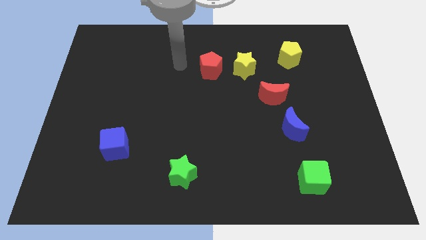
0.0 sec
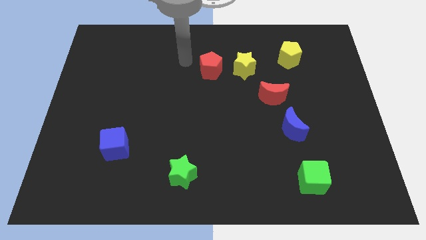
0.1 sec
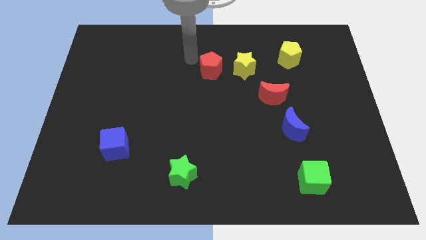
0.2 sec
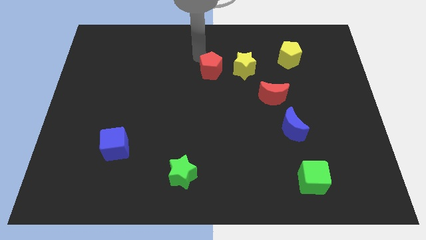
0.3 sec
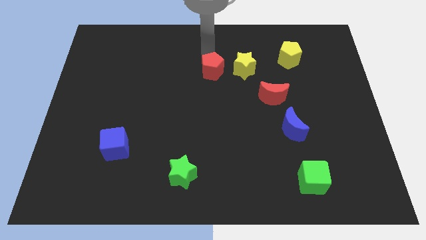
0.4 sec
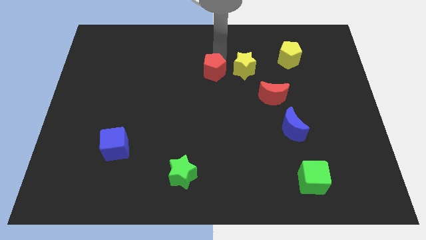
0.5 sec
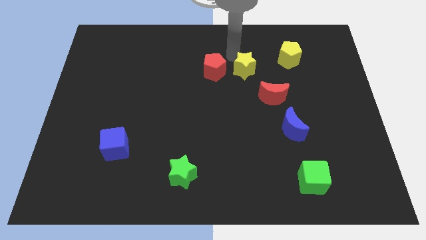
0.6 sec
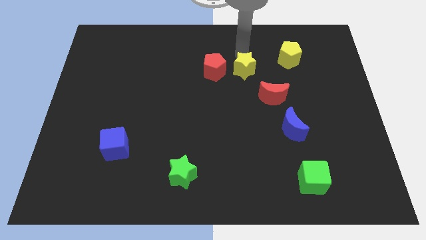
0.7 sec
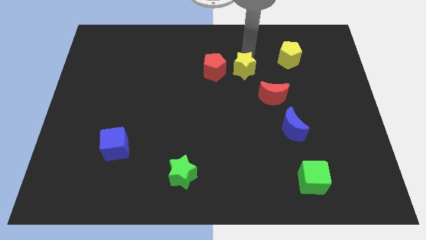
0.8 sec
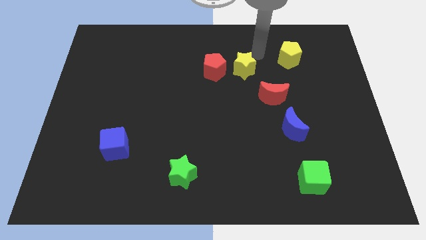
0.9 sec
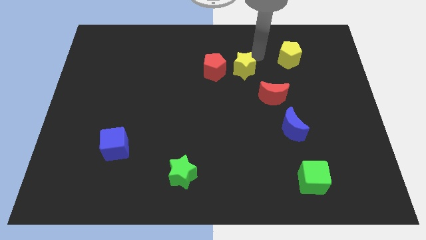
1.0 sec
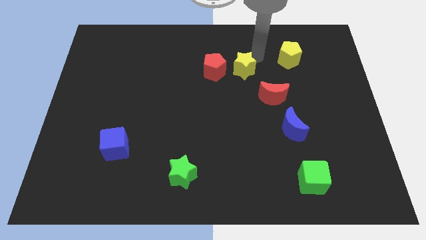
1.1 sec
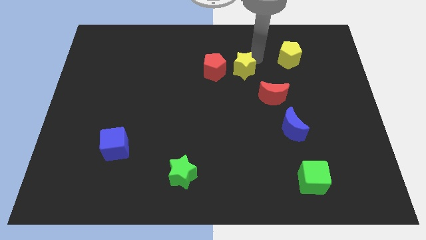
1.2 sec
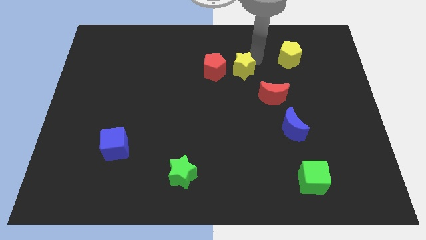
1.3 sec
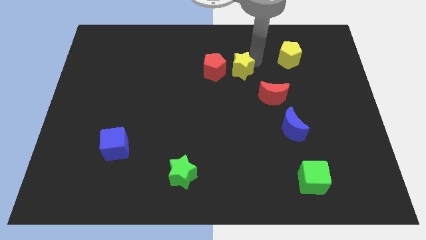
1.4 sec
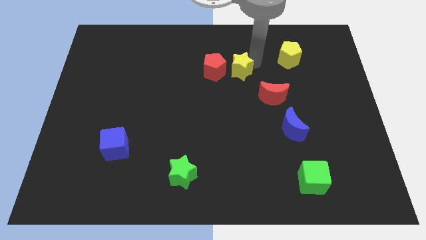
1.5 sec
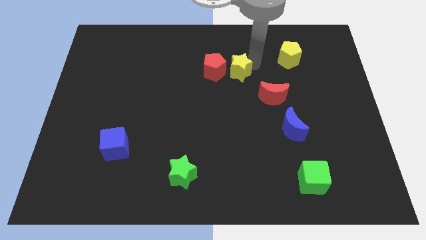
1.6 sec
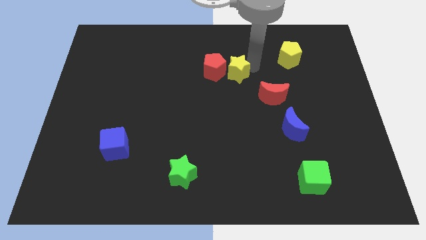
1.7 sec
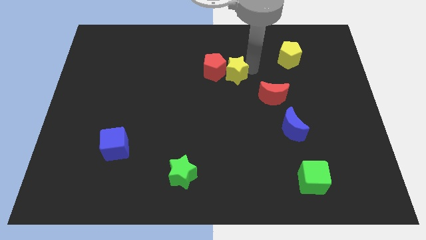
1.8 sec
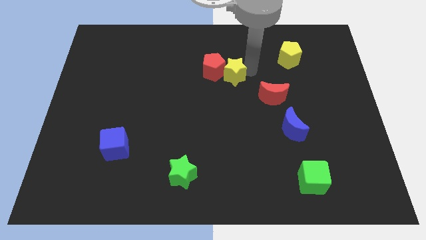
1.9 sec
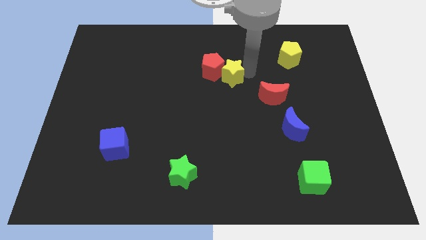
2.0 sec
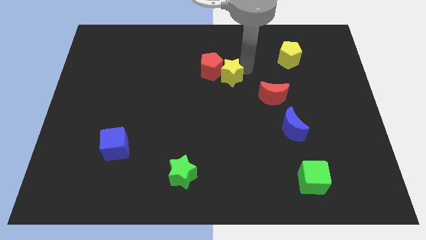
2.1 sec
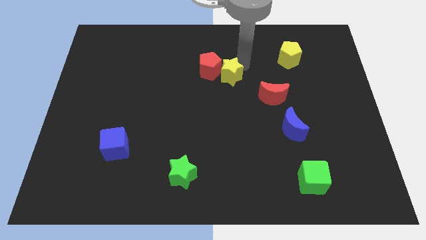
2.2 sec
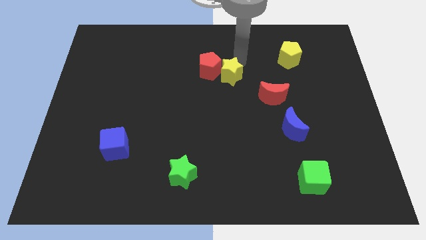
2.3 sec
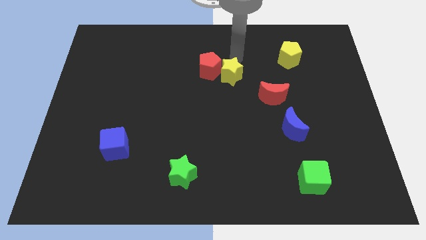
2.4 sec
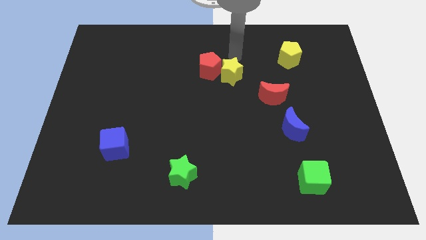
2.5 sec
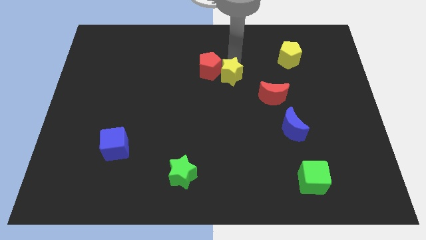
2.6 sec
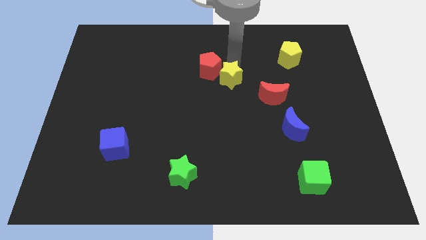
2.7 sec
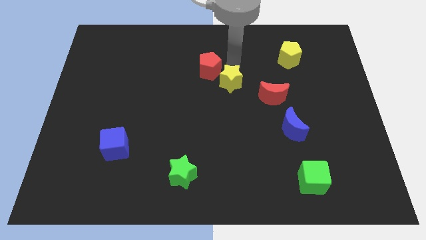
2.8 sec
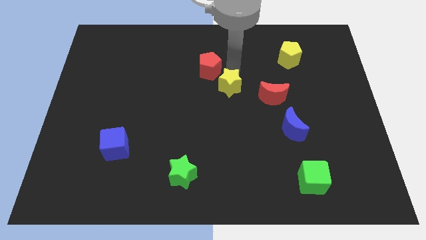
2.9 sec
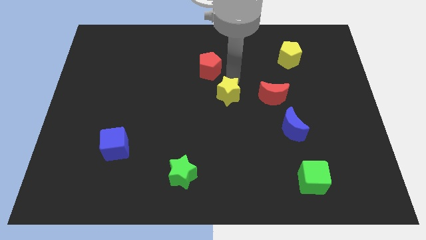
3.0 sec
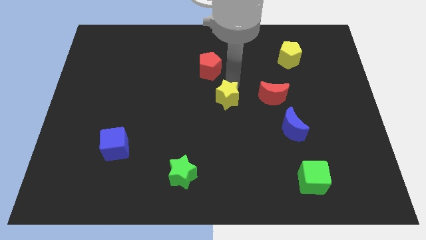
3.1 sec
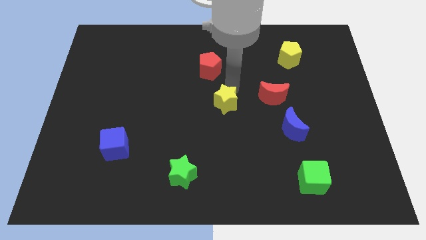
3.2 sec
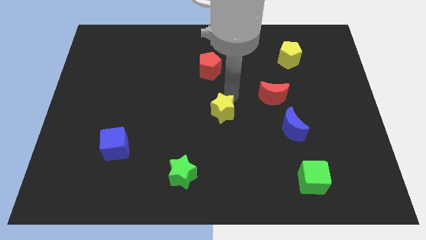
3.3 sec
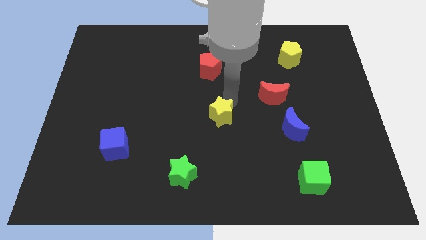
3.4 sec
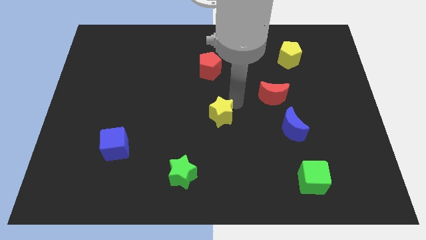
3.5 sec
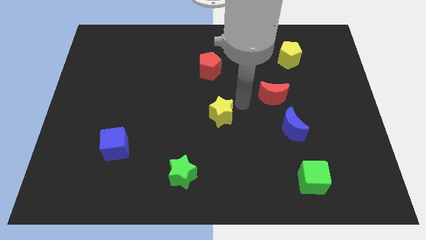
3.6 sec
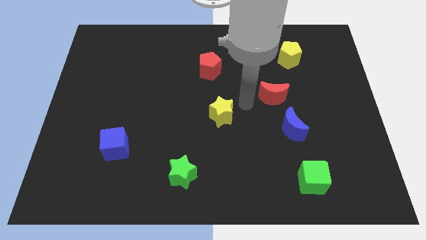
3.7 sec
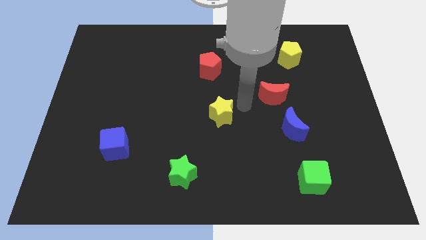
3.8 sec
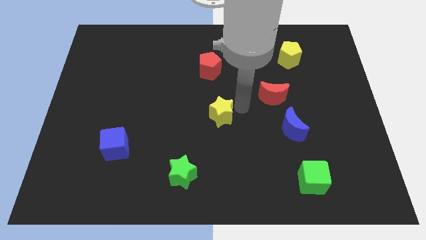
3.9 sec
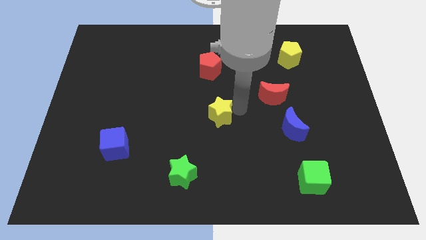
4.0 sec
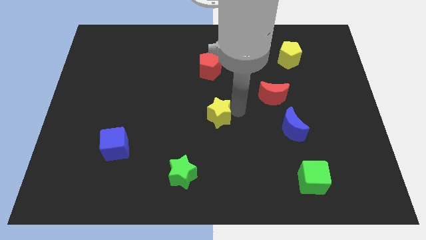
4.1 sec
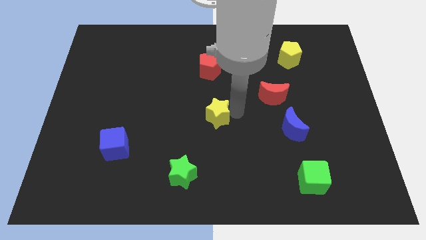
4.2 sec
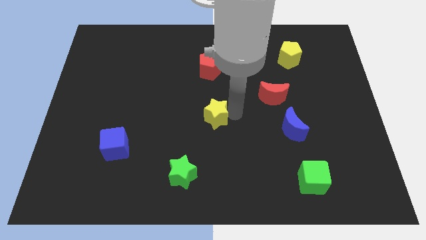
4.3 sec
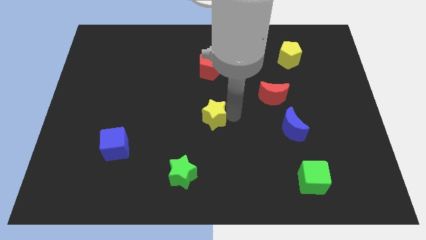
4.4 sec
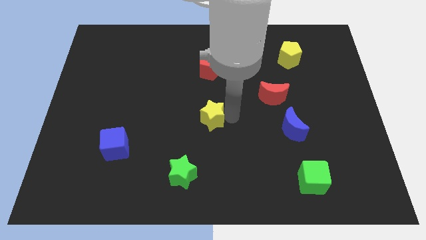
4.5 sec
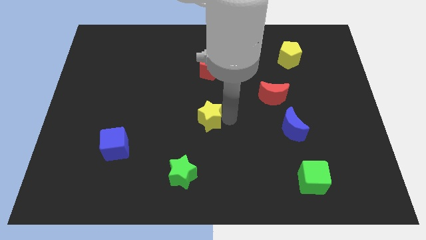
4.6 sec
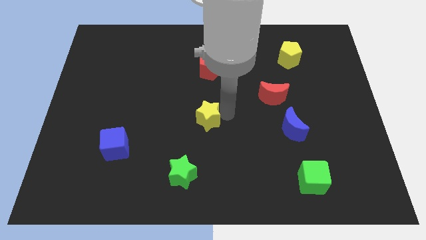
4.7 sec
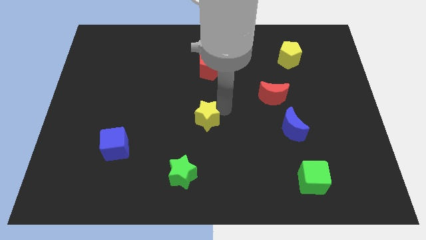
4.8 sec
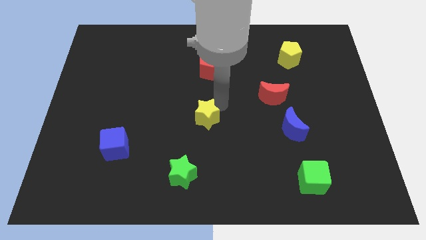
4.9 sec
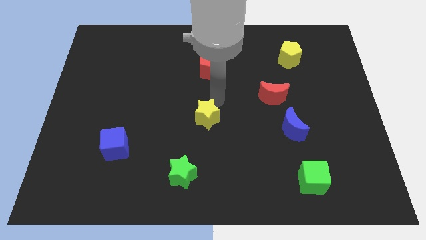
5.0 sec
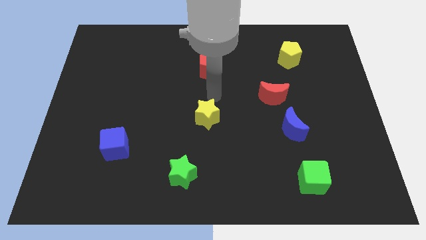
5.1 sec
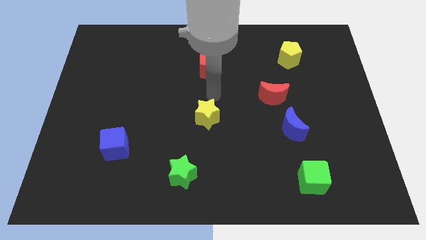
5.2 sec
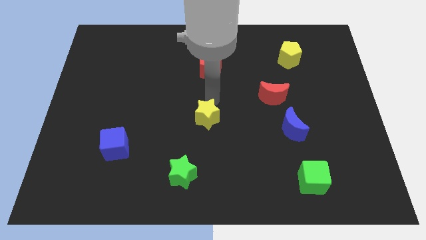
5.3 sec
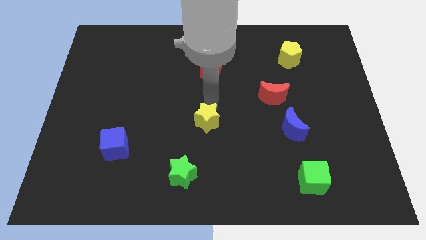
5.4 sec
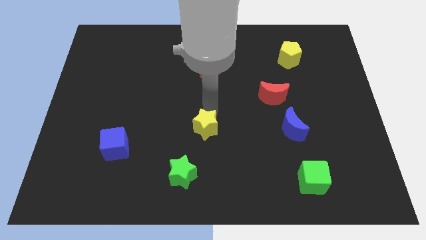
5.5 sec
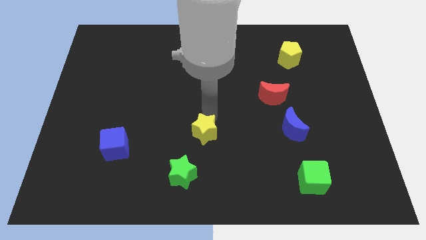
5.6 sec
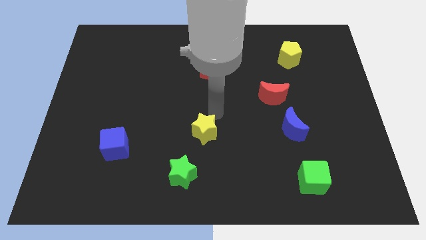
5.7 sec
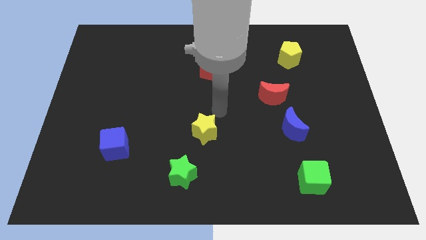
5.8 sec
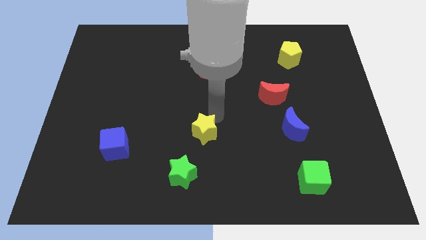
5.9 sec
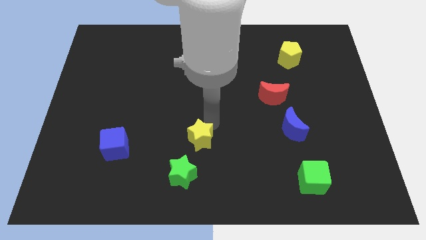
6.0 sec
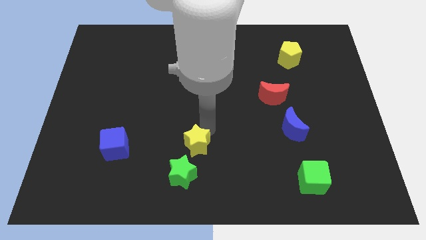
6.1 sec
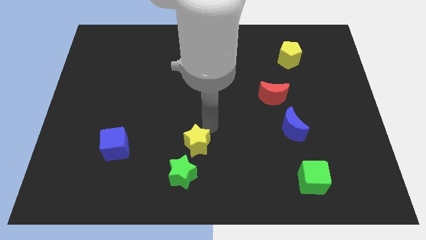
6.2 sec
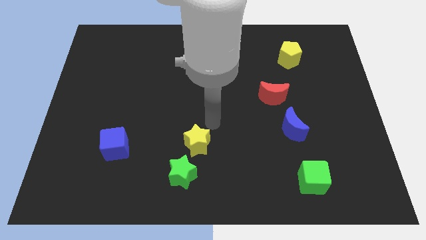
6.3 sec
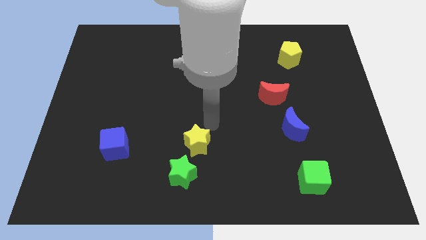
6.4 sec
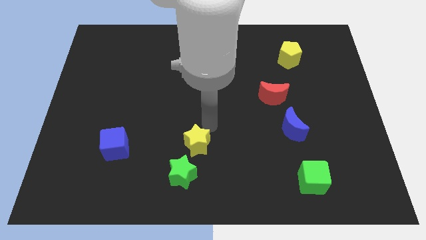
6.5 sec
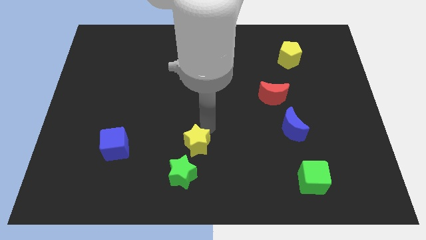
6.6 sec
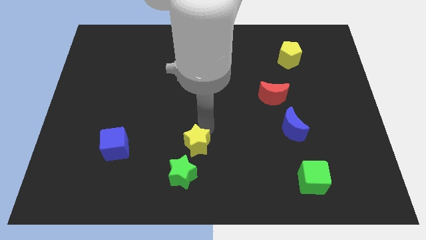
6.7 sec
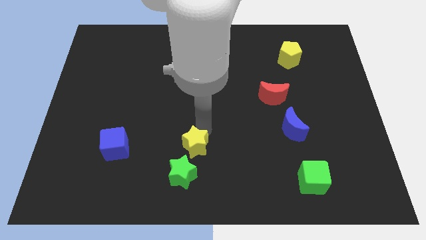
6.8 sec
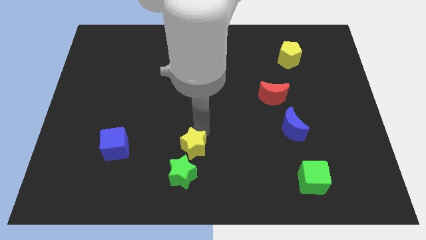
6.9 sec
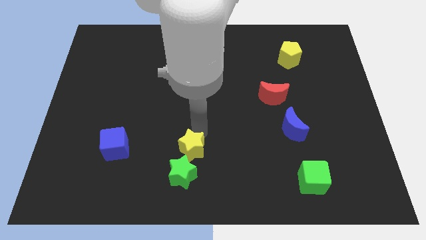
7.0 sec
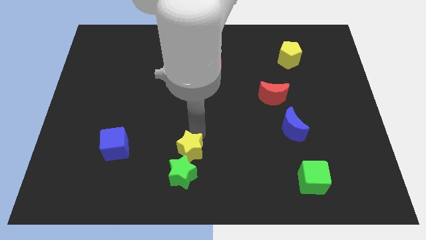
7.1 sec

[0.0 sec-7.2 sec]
move the yellow star next to the green star
